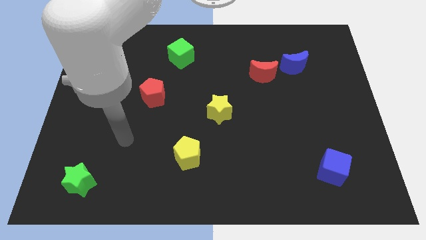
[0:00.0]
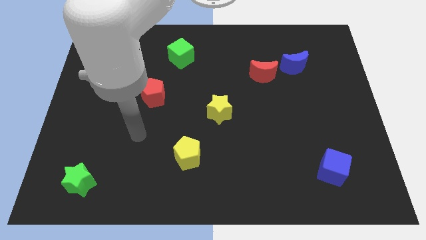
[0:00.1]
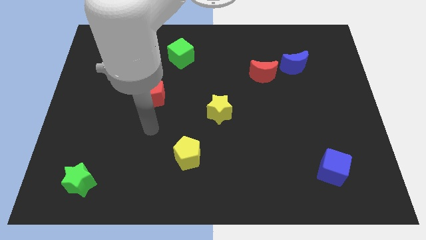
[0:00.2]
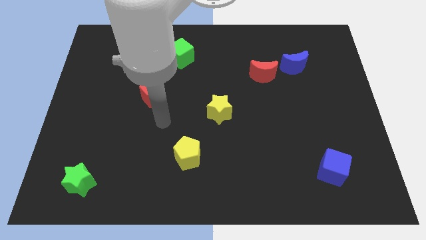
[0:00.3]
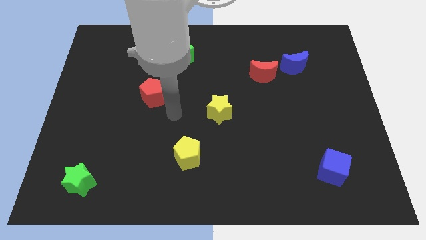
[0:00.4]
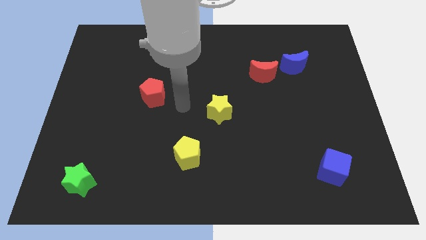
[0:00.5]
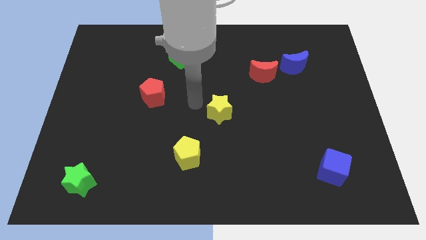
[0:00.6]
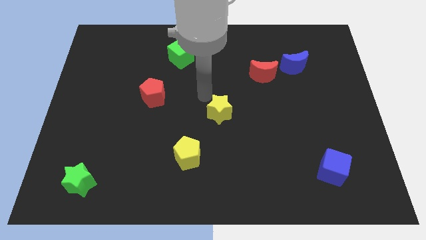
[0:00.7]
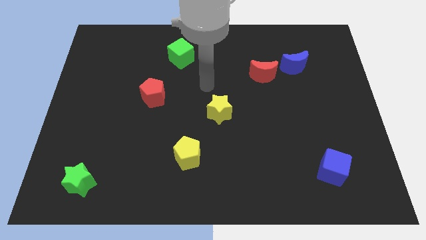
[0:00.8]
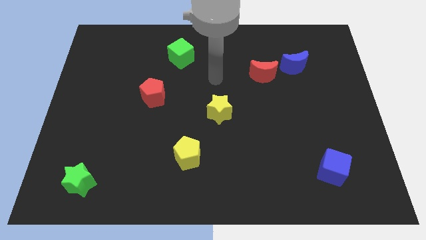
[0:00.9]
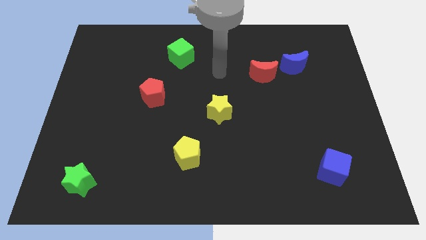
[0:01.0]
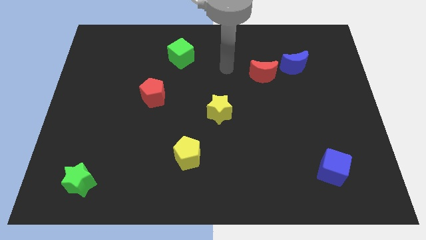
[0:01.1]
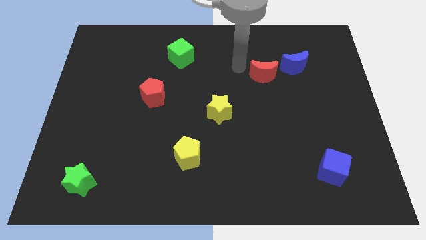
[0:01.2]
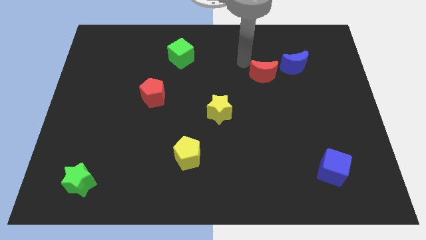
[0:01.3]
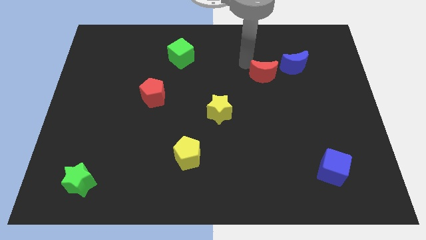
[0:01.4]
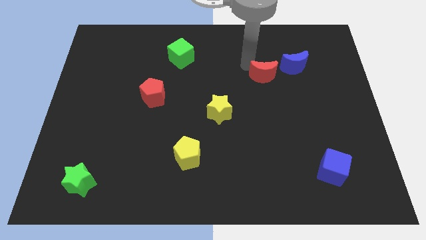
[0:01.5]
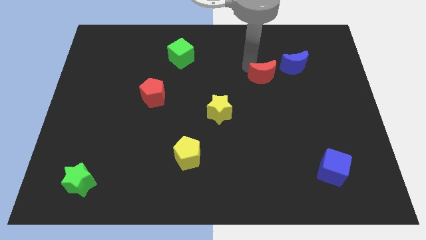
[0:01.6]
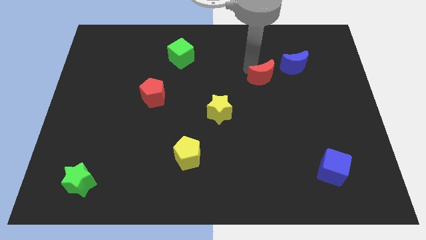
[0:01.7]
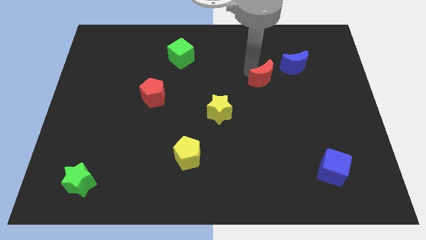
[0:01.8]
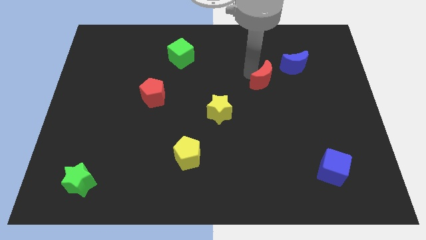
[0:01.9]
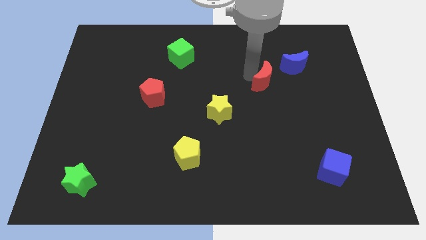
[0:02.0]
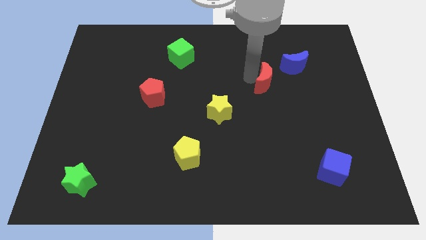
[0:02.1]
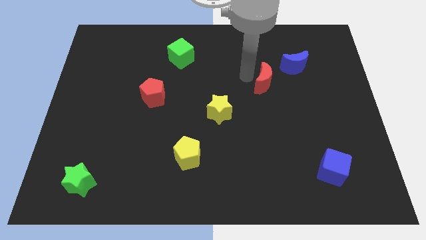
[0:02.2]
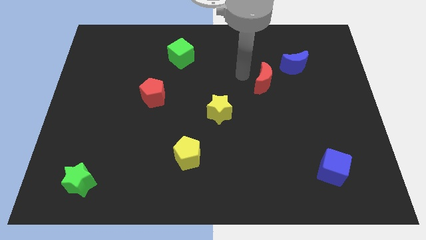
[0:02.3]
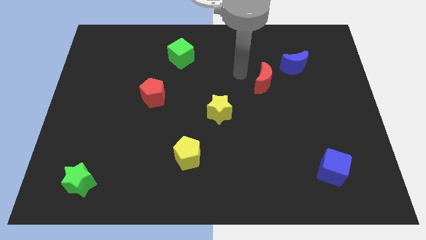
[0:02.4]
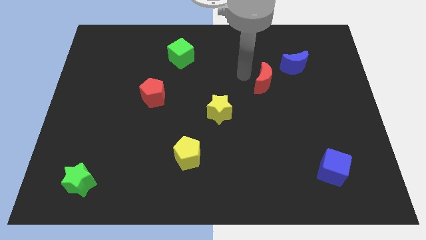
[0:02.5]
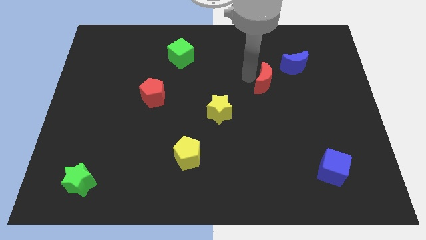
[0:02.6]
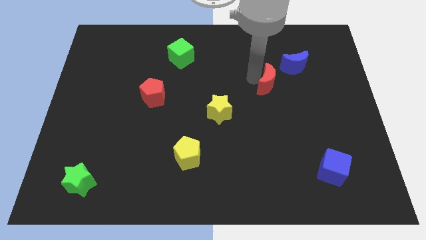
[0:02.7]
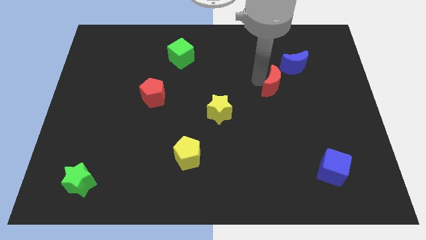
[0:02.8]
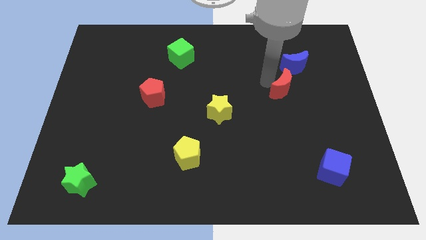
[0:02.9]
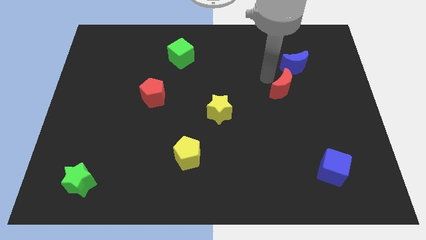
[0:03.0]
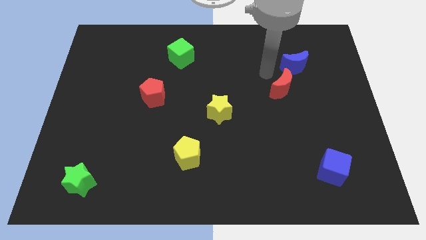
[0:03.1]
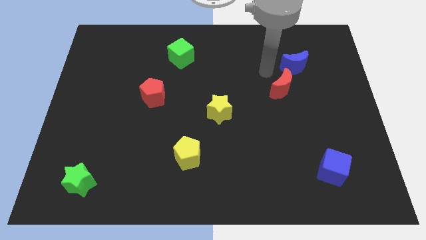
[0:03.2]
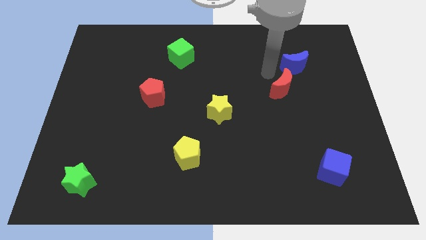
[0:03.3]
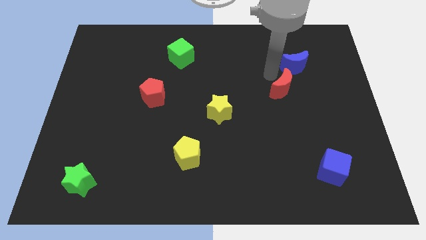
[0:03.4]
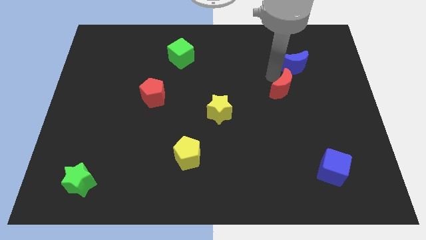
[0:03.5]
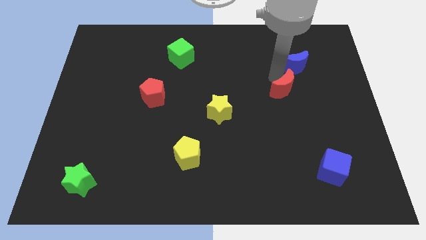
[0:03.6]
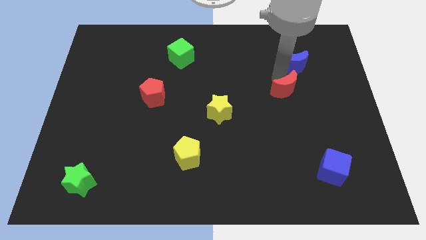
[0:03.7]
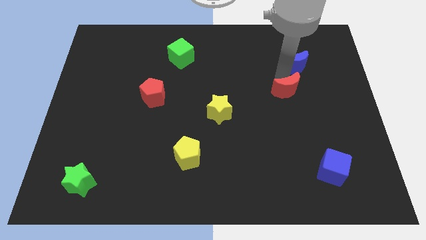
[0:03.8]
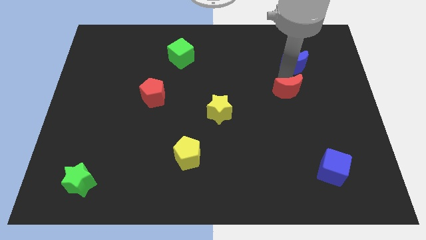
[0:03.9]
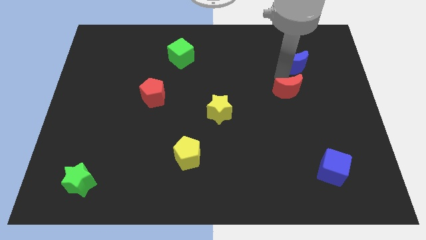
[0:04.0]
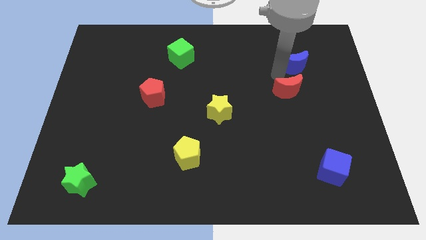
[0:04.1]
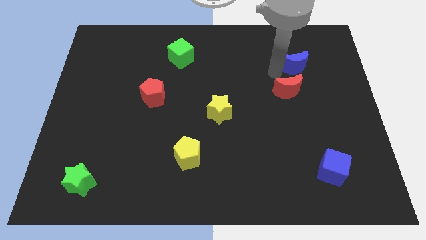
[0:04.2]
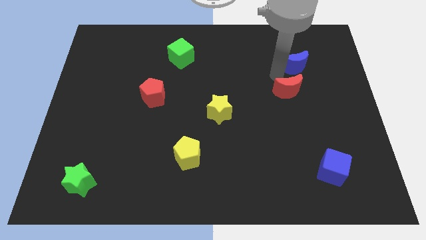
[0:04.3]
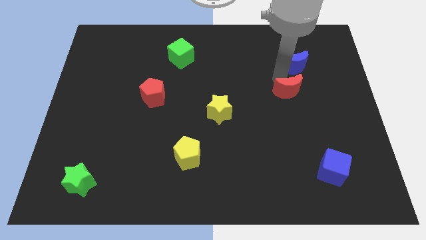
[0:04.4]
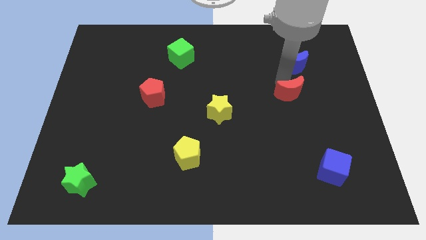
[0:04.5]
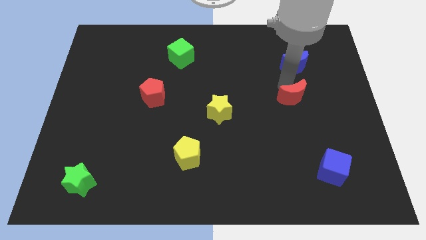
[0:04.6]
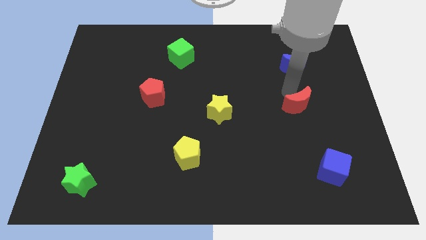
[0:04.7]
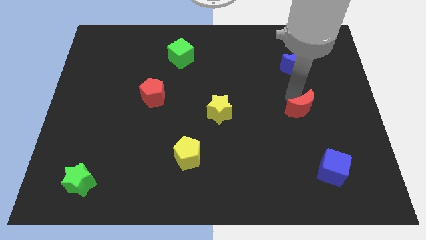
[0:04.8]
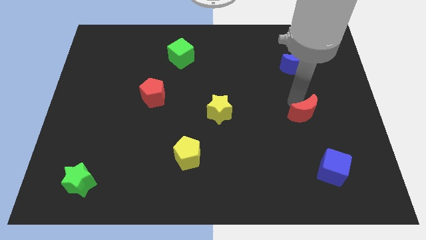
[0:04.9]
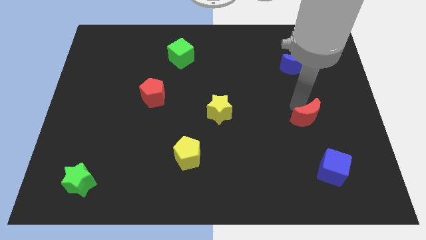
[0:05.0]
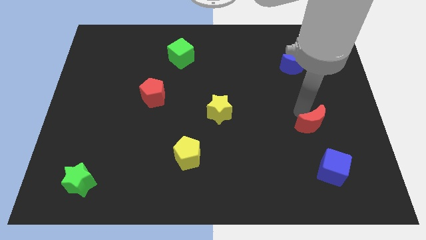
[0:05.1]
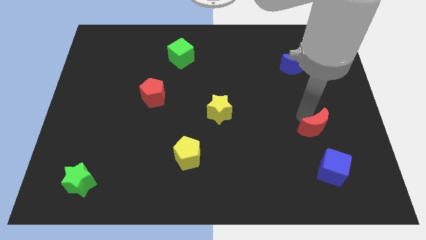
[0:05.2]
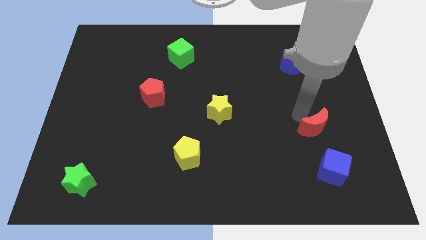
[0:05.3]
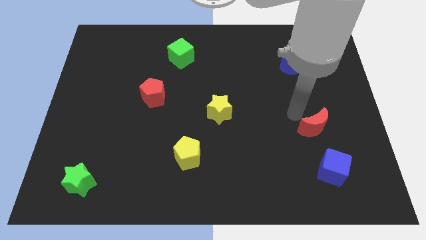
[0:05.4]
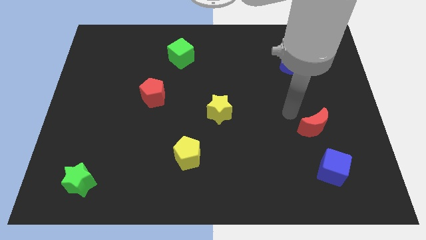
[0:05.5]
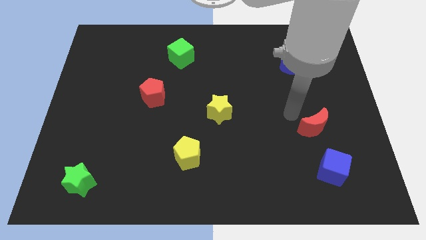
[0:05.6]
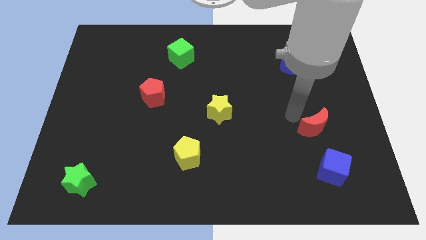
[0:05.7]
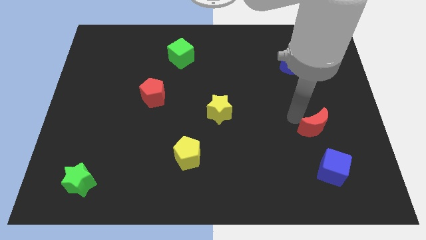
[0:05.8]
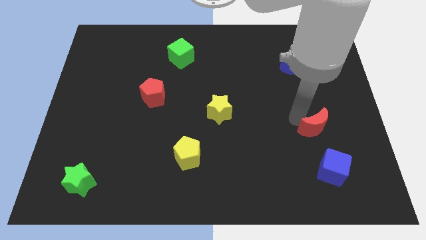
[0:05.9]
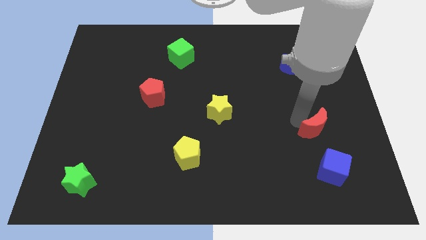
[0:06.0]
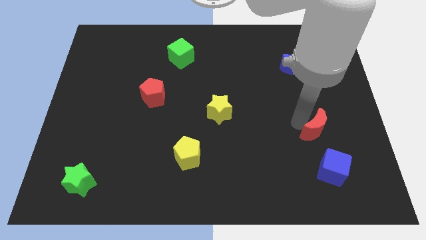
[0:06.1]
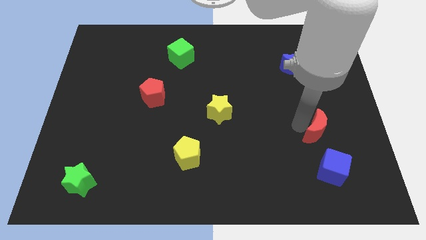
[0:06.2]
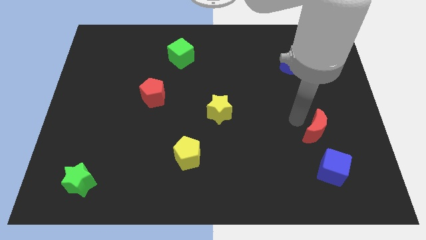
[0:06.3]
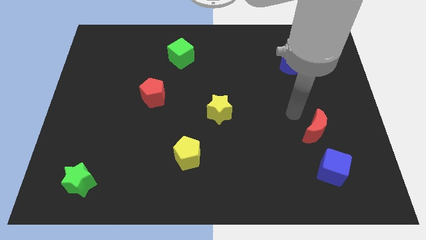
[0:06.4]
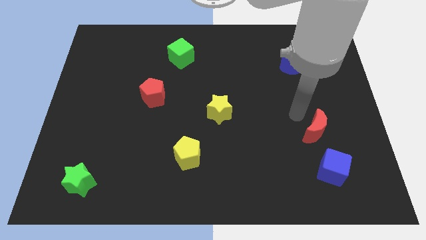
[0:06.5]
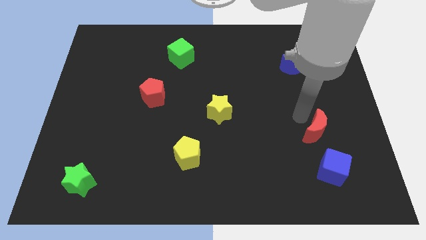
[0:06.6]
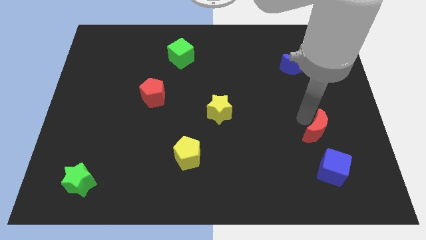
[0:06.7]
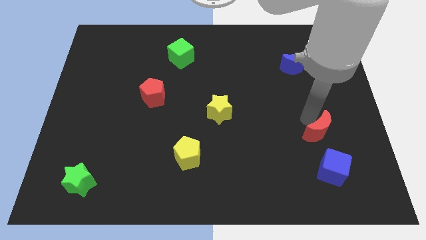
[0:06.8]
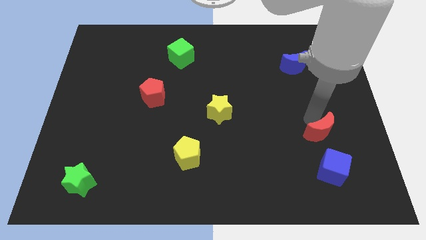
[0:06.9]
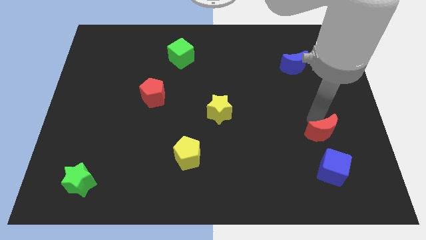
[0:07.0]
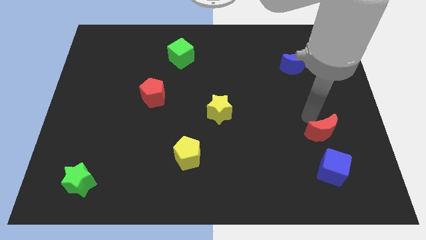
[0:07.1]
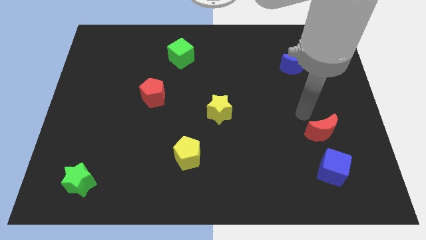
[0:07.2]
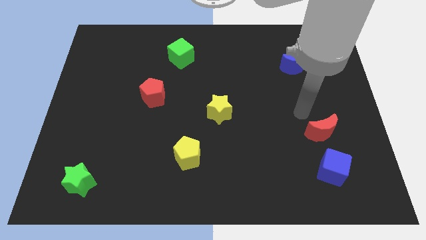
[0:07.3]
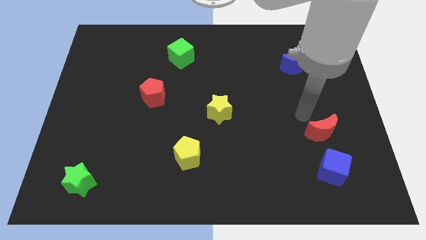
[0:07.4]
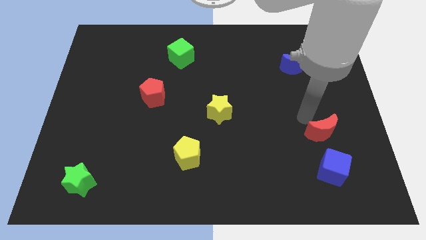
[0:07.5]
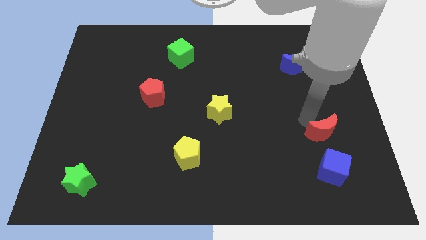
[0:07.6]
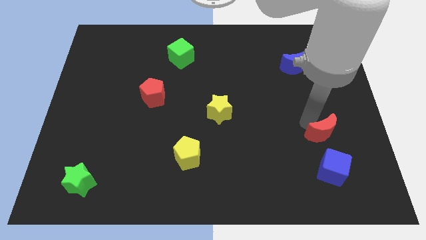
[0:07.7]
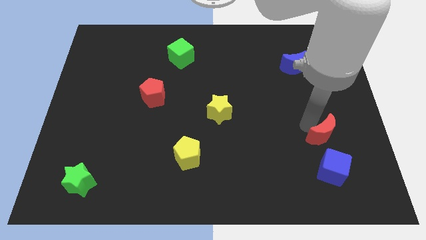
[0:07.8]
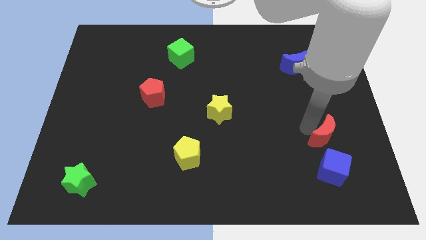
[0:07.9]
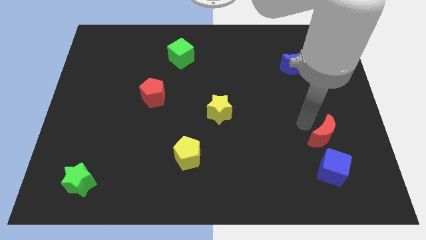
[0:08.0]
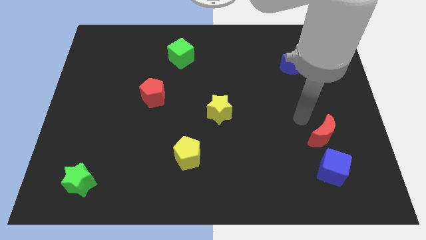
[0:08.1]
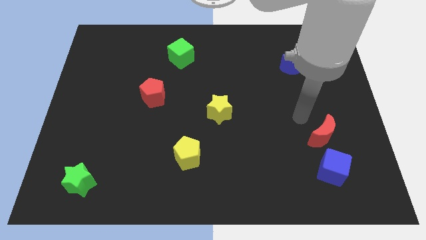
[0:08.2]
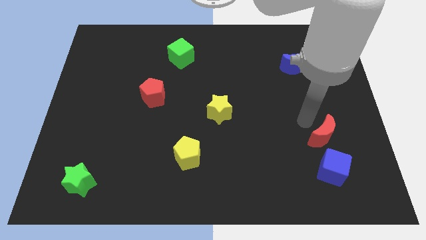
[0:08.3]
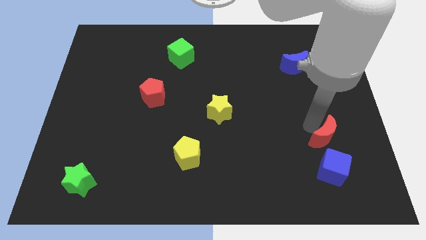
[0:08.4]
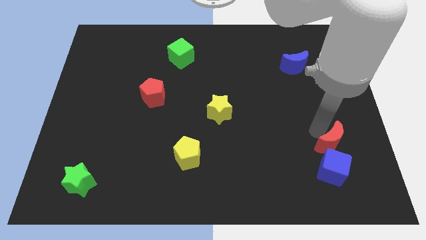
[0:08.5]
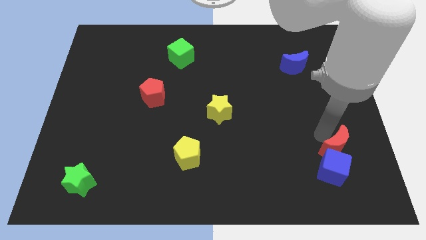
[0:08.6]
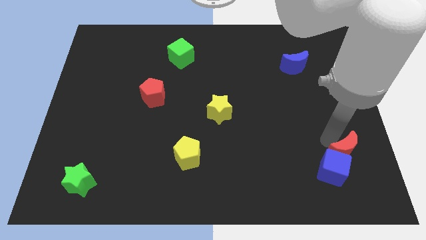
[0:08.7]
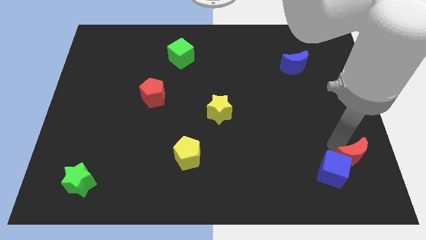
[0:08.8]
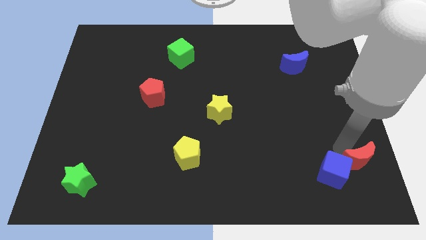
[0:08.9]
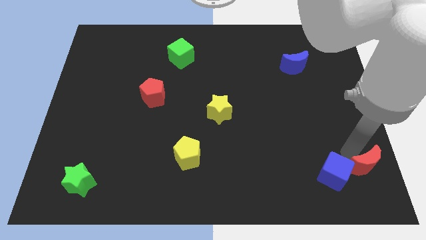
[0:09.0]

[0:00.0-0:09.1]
push the red moon to the bottom right corner
